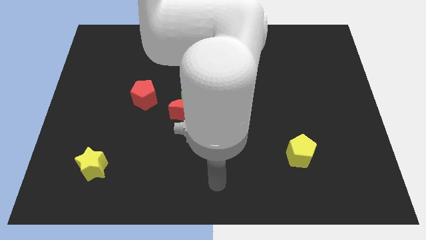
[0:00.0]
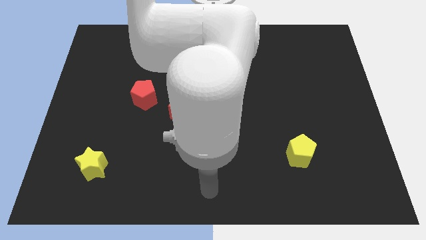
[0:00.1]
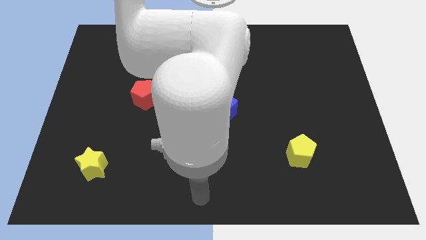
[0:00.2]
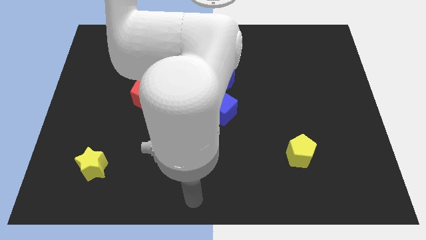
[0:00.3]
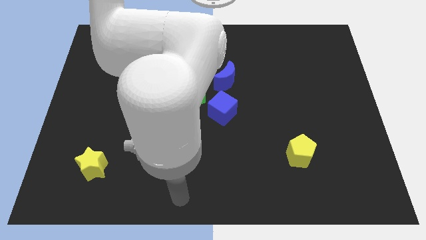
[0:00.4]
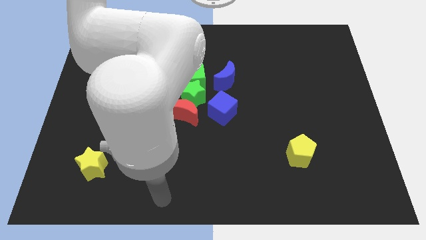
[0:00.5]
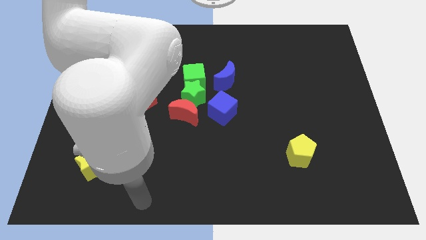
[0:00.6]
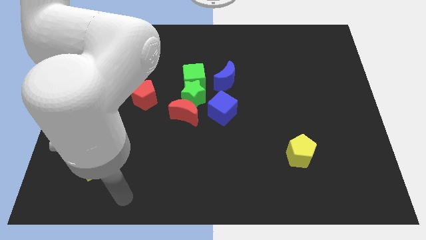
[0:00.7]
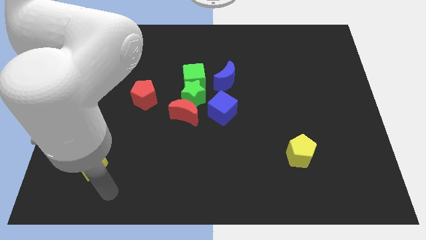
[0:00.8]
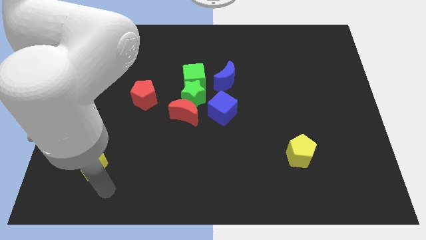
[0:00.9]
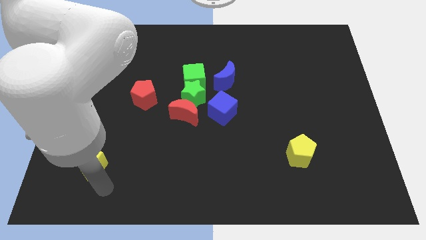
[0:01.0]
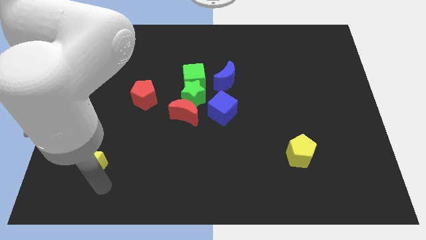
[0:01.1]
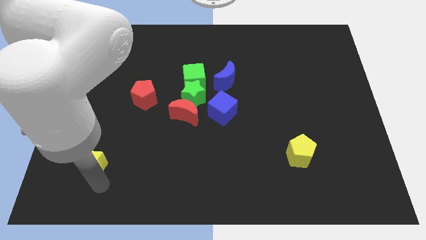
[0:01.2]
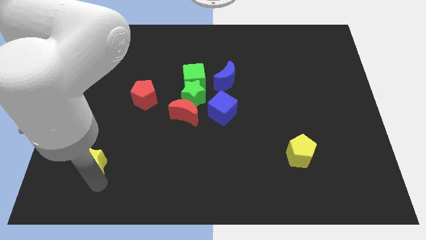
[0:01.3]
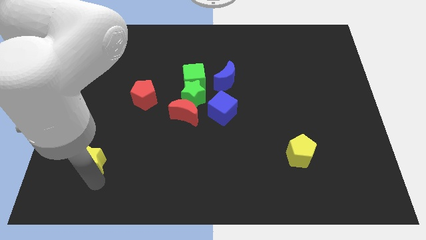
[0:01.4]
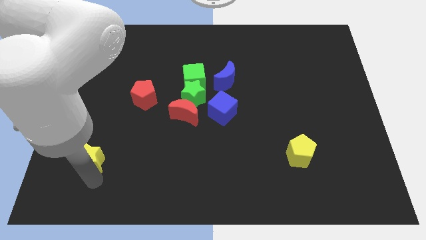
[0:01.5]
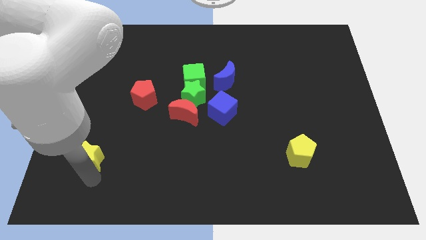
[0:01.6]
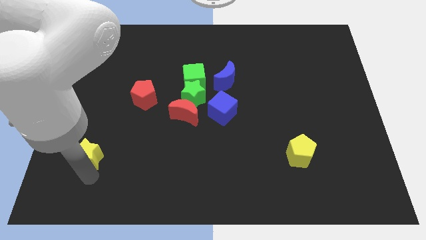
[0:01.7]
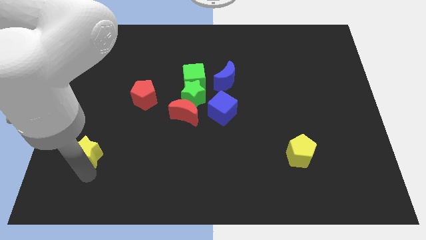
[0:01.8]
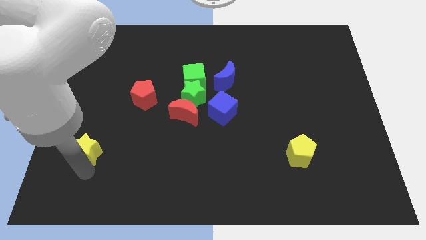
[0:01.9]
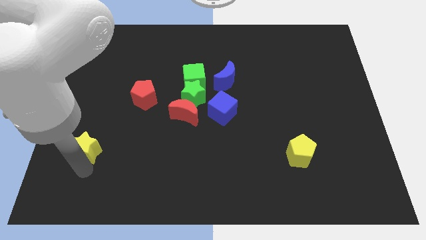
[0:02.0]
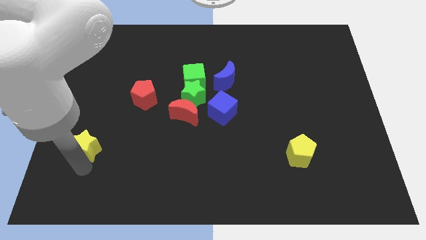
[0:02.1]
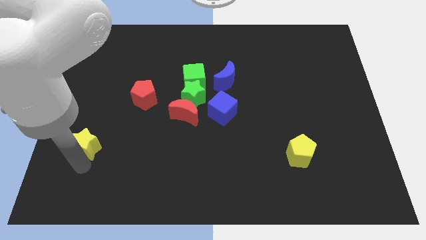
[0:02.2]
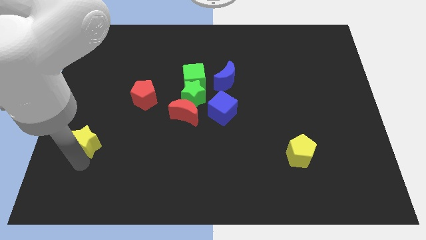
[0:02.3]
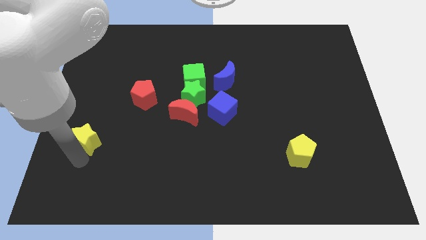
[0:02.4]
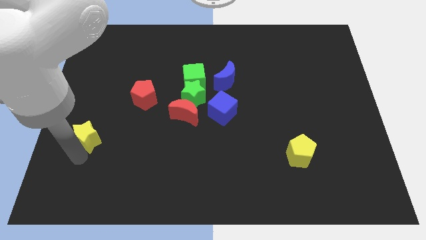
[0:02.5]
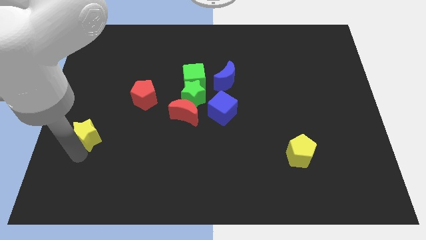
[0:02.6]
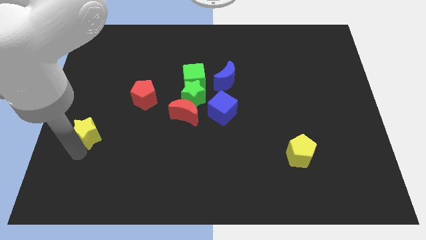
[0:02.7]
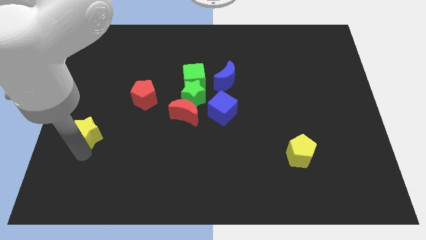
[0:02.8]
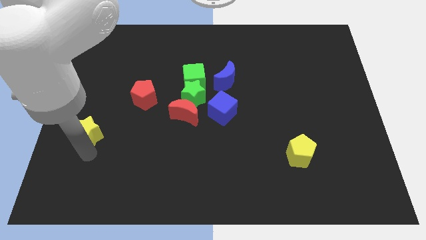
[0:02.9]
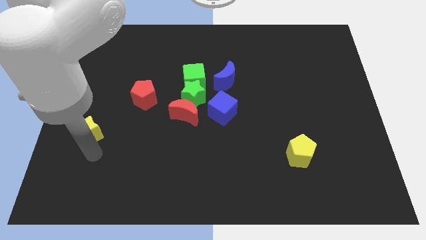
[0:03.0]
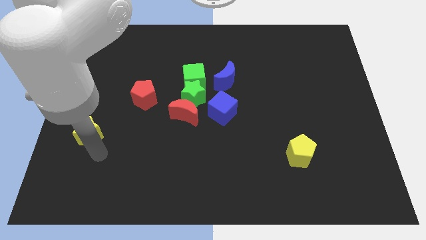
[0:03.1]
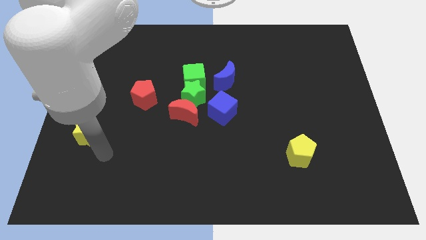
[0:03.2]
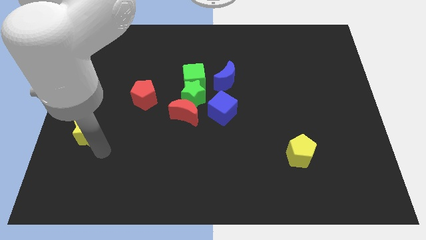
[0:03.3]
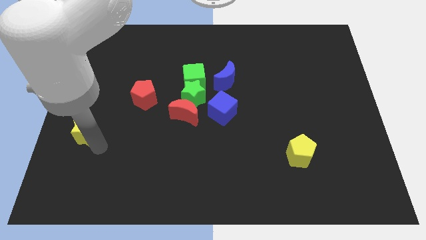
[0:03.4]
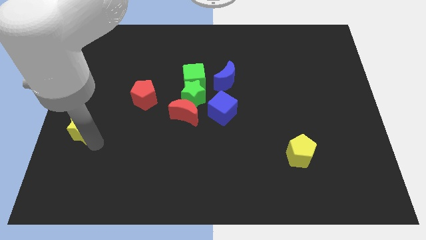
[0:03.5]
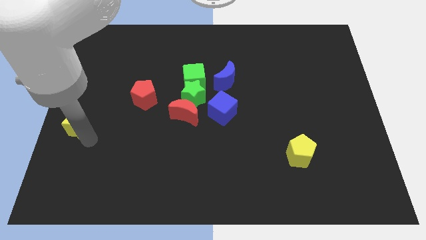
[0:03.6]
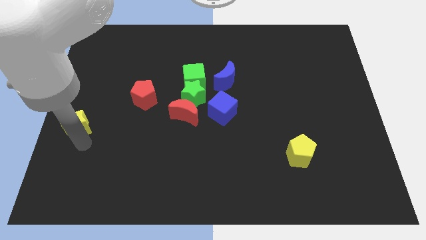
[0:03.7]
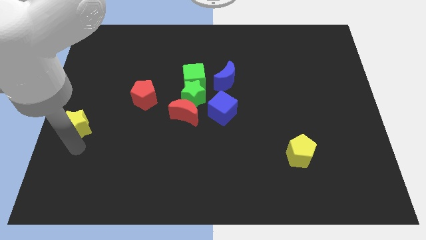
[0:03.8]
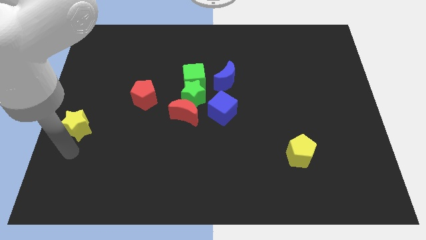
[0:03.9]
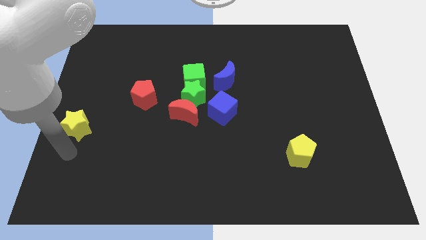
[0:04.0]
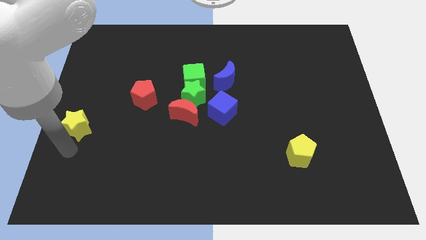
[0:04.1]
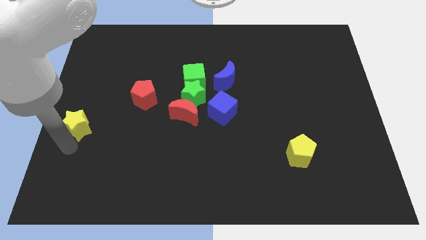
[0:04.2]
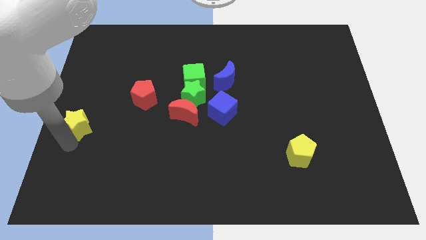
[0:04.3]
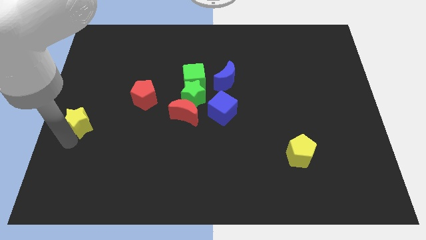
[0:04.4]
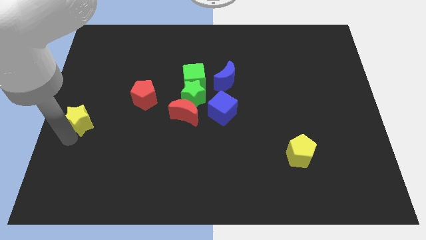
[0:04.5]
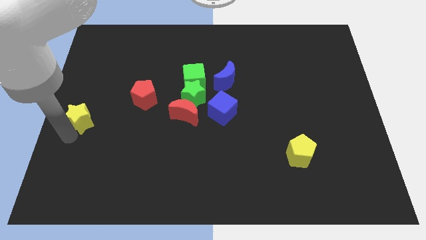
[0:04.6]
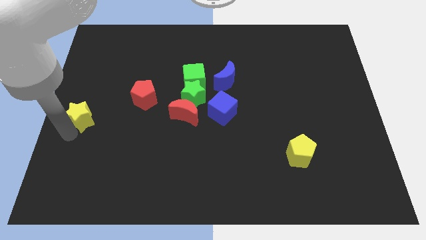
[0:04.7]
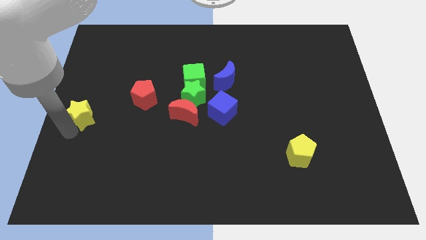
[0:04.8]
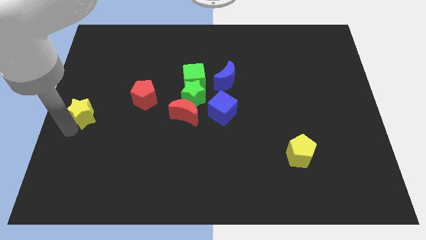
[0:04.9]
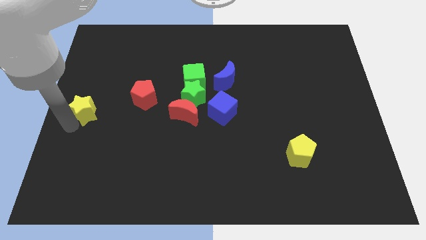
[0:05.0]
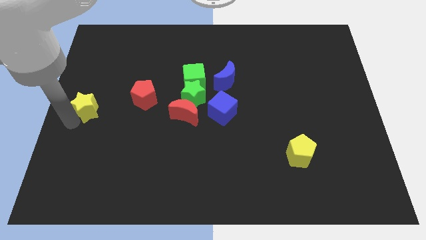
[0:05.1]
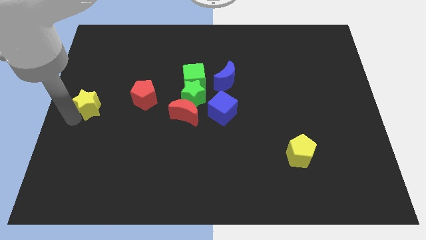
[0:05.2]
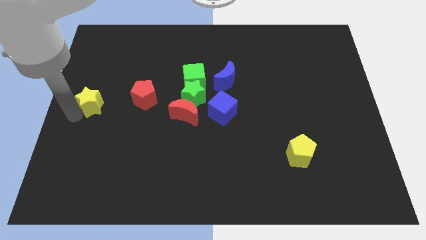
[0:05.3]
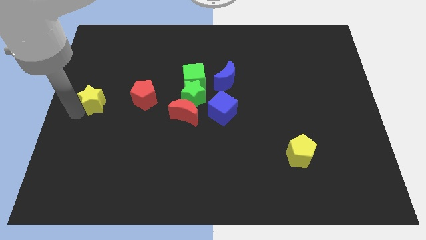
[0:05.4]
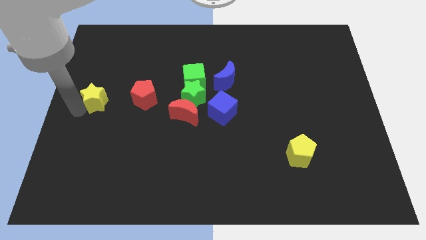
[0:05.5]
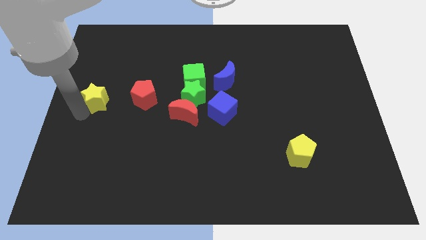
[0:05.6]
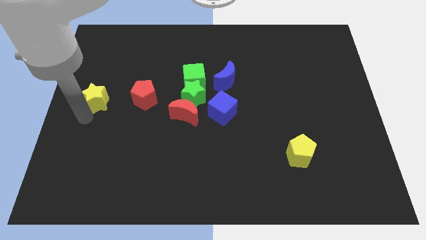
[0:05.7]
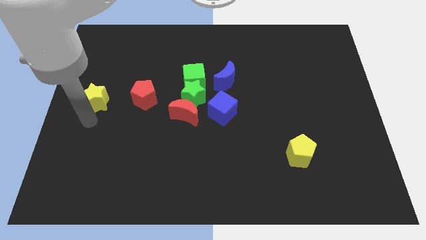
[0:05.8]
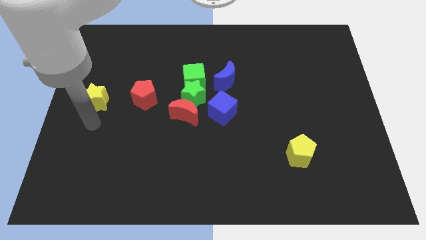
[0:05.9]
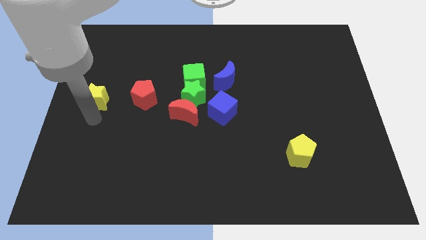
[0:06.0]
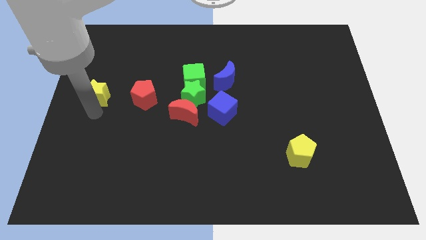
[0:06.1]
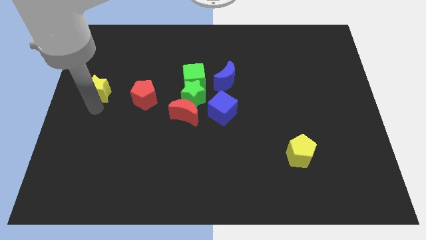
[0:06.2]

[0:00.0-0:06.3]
slide the yellow star upwards

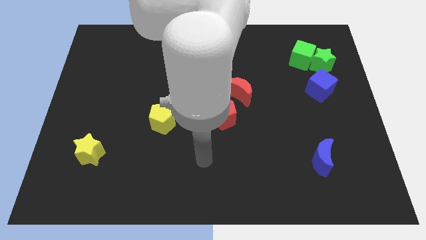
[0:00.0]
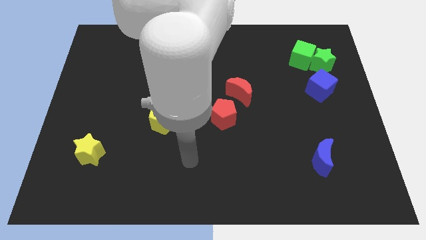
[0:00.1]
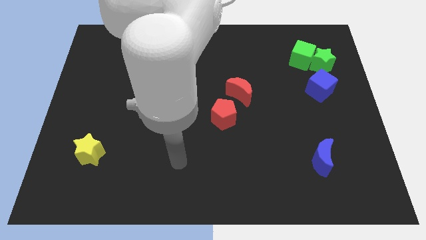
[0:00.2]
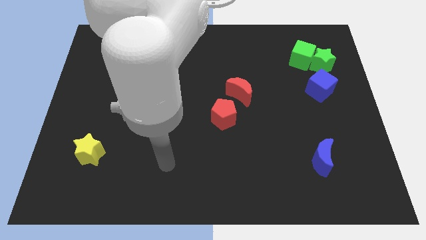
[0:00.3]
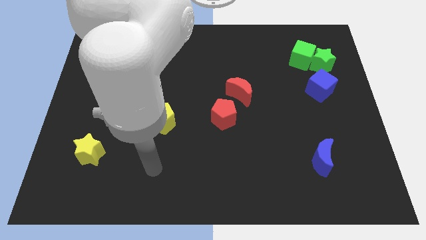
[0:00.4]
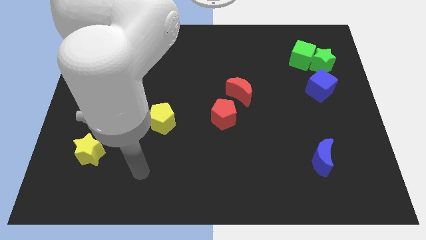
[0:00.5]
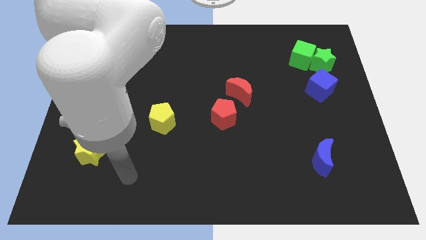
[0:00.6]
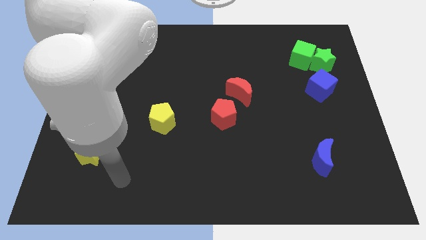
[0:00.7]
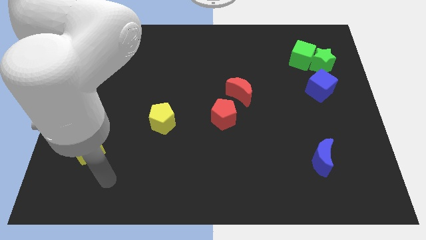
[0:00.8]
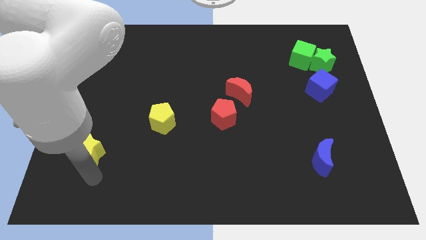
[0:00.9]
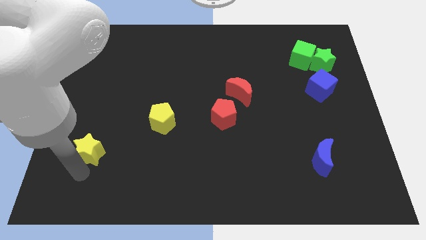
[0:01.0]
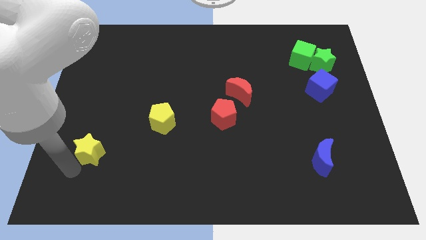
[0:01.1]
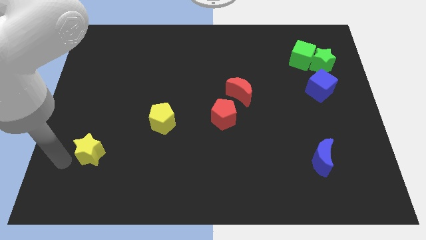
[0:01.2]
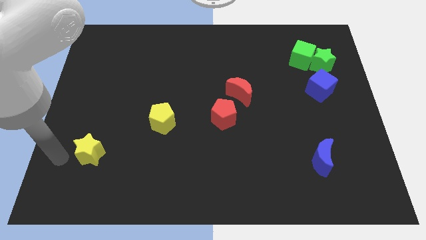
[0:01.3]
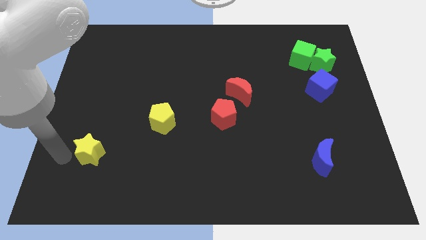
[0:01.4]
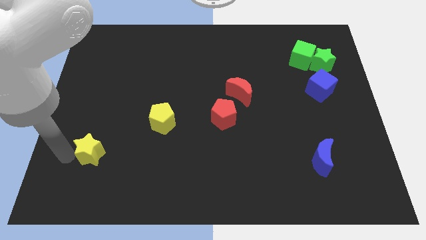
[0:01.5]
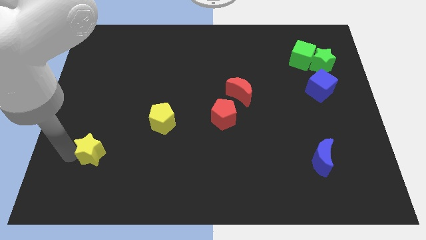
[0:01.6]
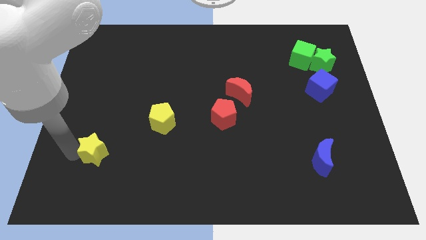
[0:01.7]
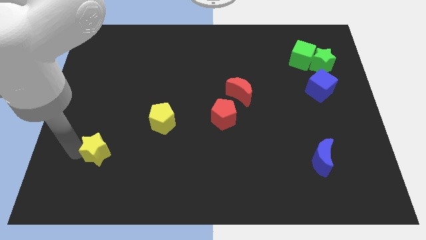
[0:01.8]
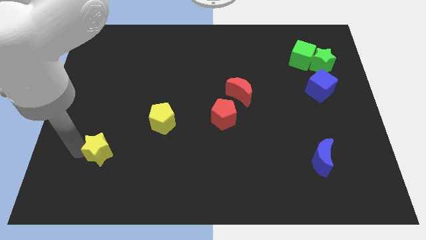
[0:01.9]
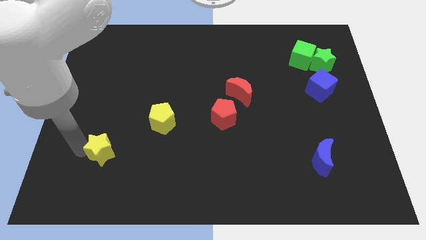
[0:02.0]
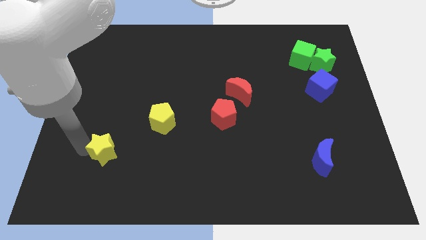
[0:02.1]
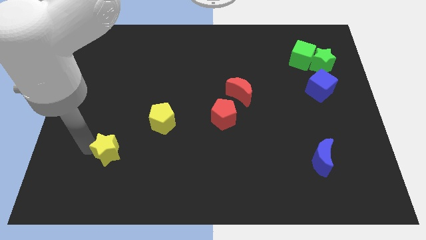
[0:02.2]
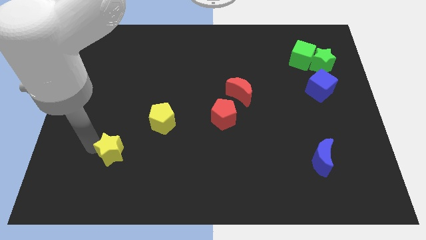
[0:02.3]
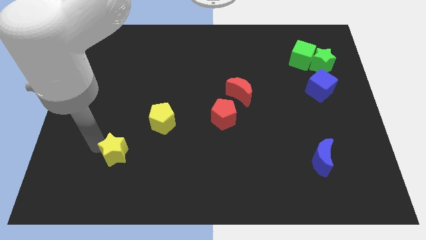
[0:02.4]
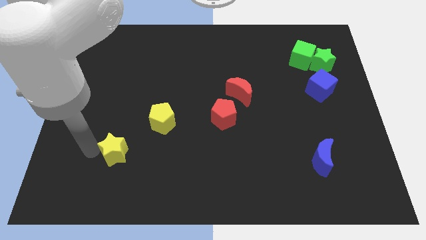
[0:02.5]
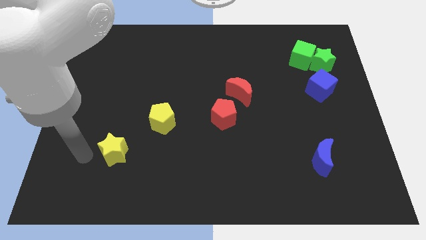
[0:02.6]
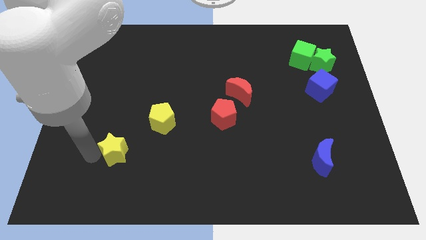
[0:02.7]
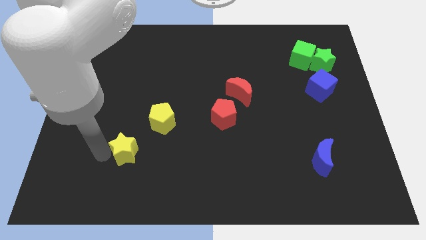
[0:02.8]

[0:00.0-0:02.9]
move the yellow star right somewhat
